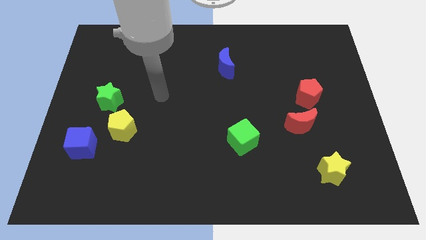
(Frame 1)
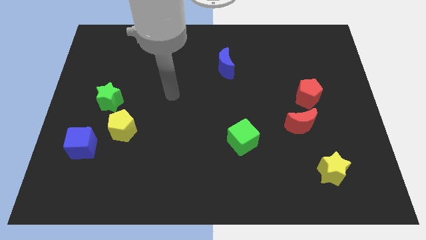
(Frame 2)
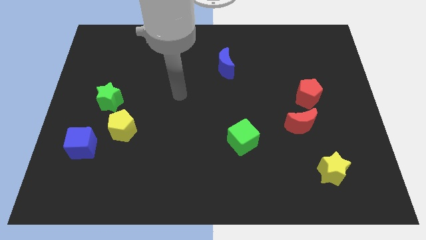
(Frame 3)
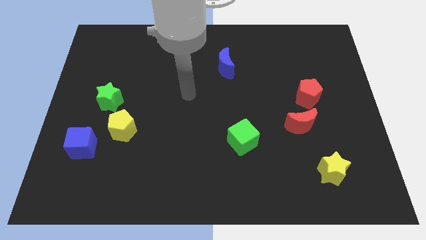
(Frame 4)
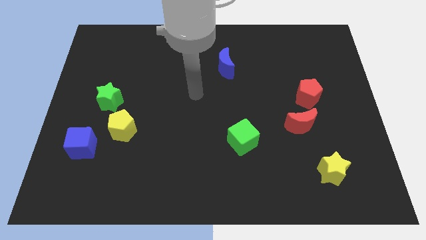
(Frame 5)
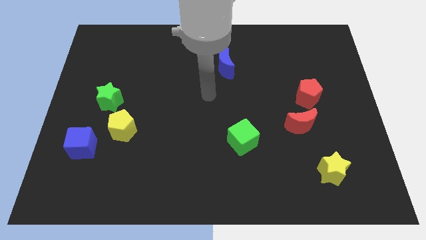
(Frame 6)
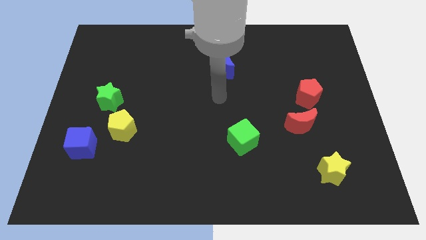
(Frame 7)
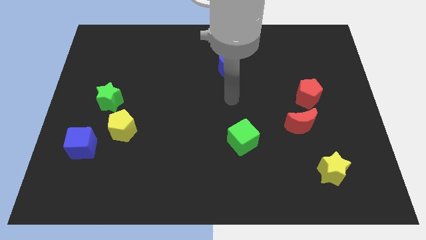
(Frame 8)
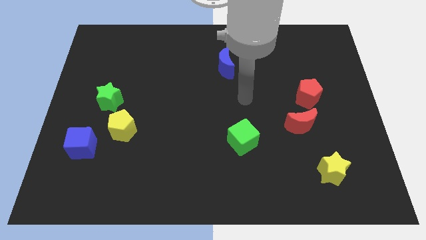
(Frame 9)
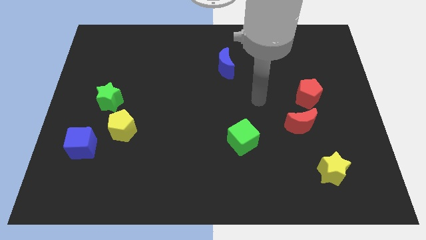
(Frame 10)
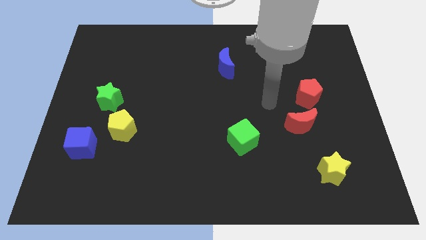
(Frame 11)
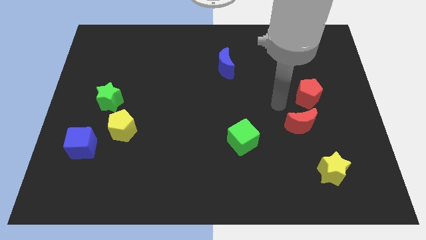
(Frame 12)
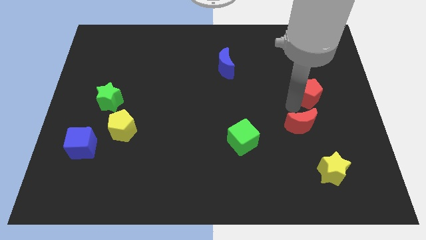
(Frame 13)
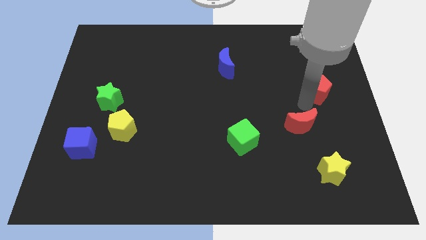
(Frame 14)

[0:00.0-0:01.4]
separate the red moon from the red pentagon

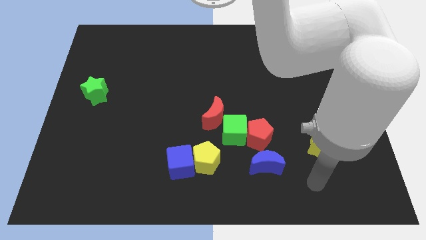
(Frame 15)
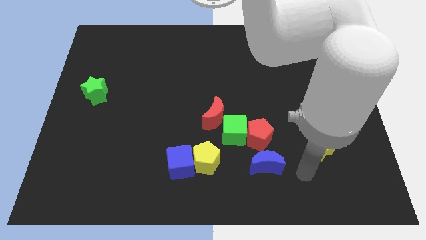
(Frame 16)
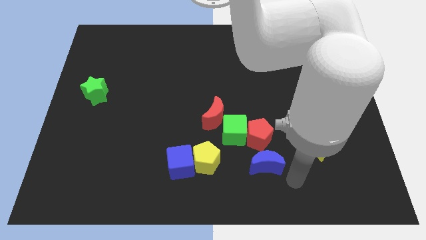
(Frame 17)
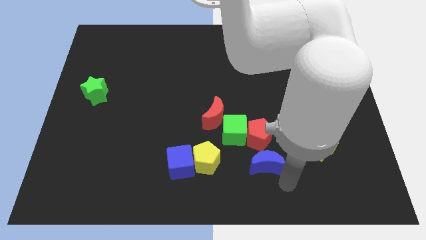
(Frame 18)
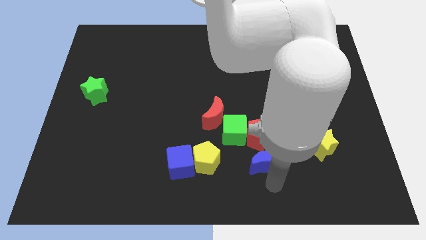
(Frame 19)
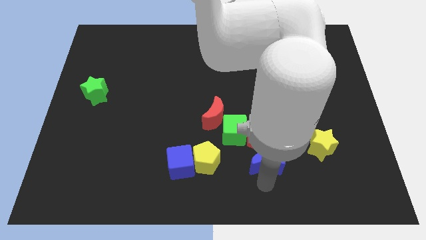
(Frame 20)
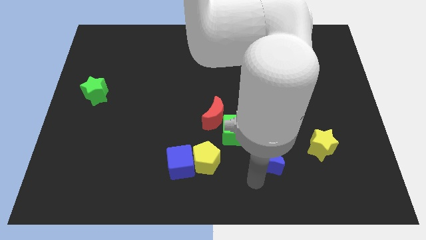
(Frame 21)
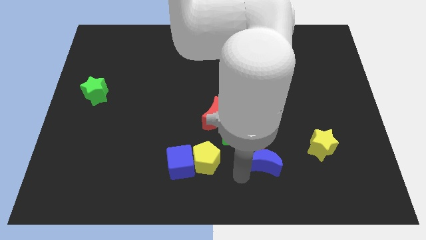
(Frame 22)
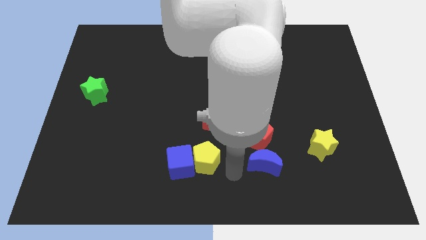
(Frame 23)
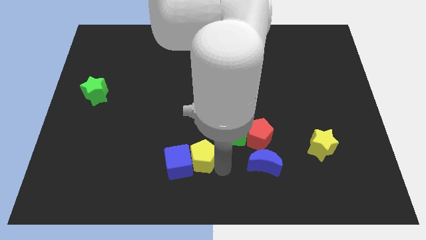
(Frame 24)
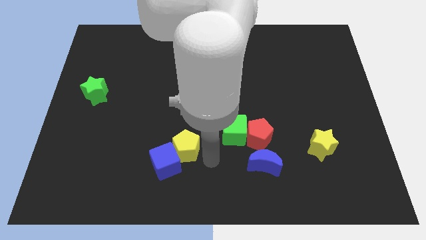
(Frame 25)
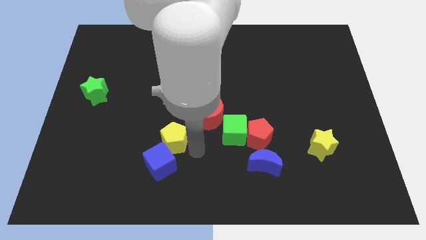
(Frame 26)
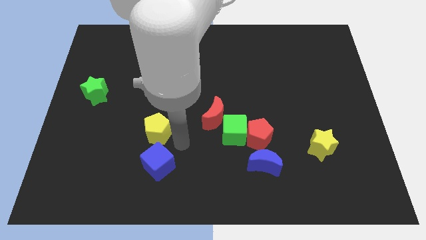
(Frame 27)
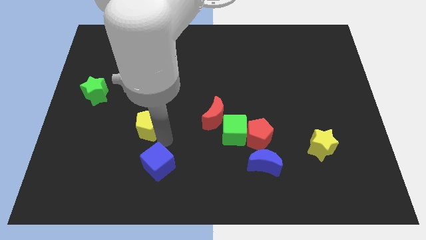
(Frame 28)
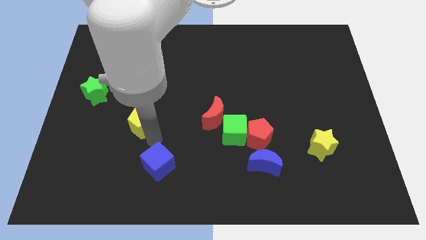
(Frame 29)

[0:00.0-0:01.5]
separate the blue cube from the yellow pentagon

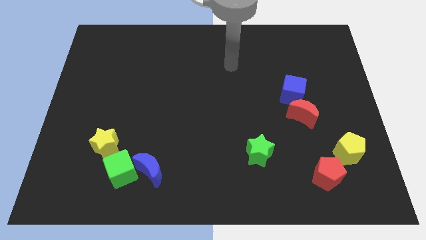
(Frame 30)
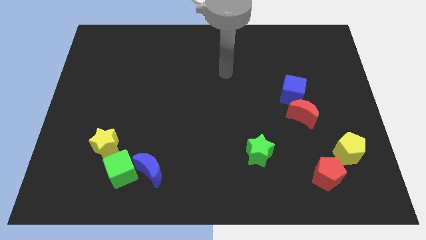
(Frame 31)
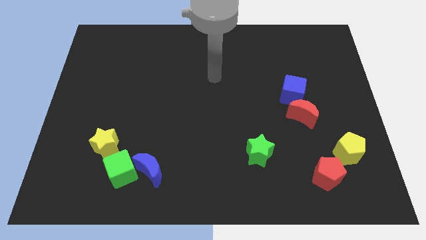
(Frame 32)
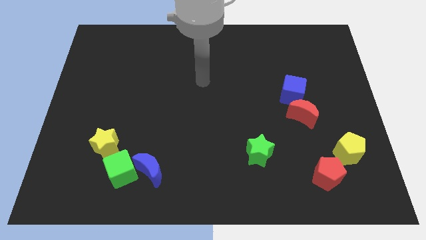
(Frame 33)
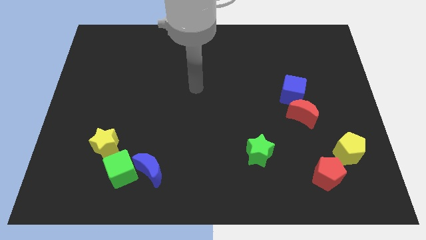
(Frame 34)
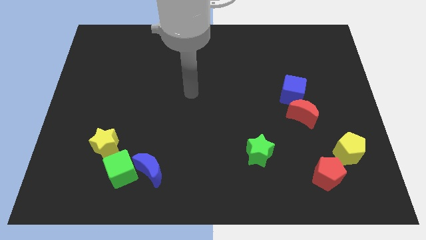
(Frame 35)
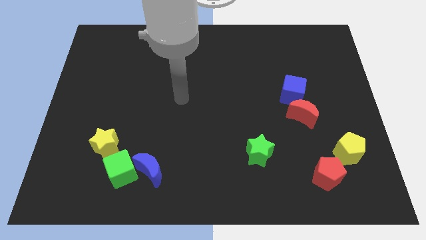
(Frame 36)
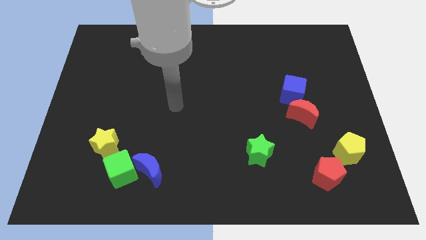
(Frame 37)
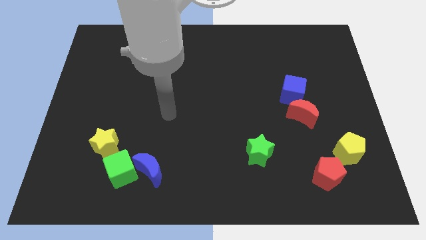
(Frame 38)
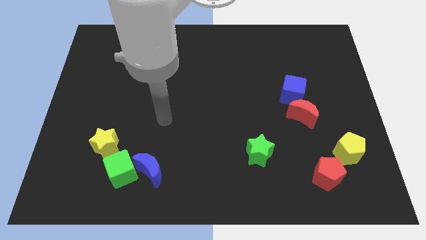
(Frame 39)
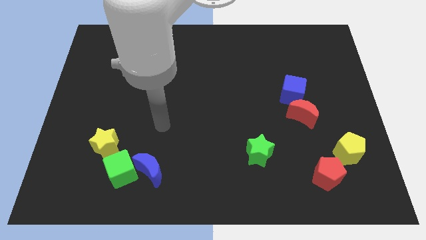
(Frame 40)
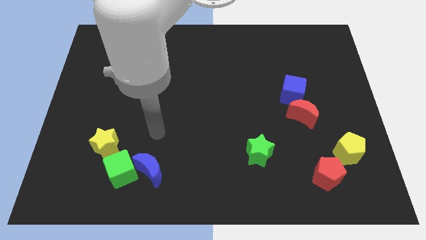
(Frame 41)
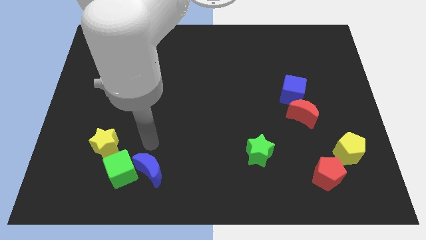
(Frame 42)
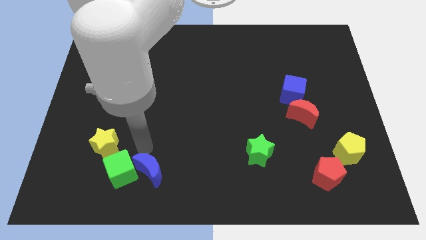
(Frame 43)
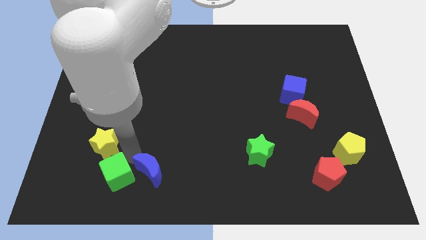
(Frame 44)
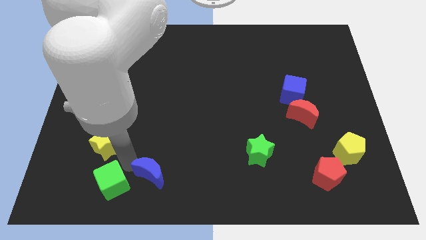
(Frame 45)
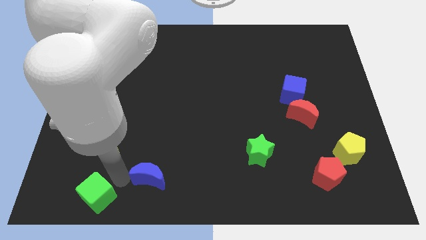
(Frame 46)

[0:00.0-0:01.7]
pull the blue moon apart from the green cube

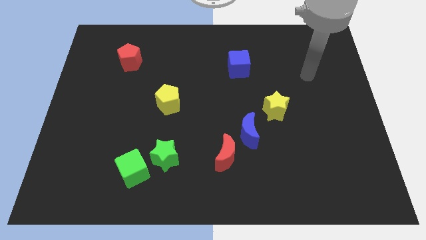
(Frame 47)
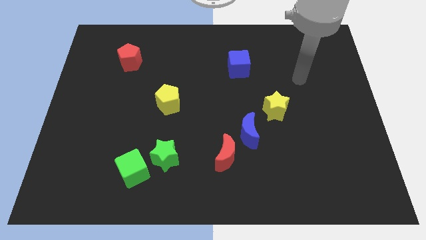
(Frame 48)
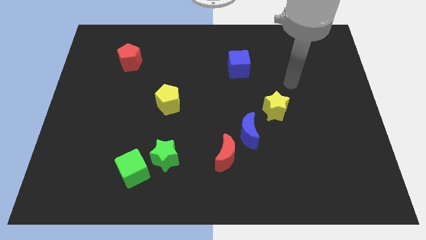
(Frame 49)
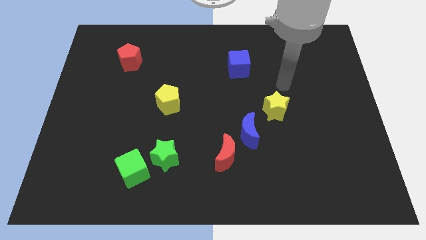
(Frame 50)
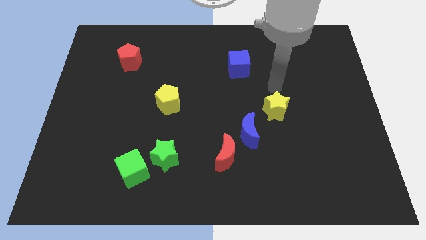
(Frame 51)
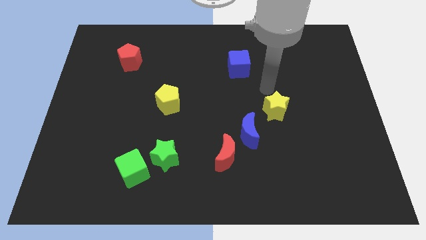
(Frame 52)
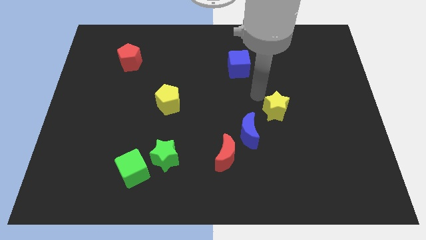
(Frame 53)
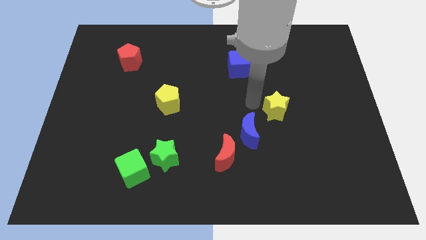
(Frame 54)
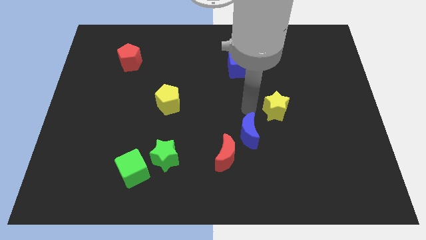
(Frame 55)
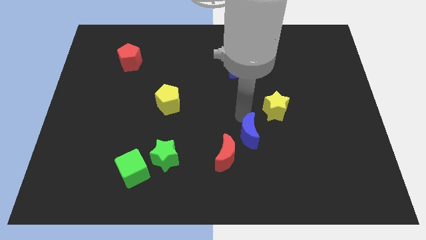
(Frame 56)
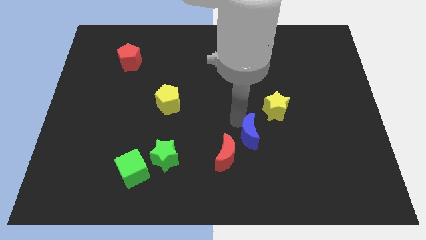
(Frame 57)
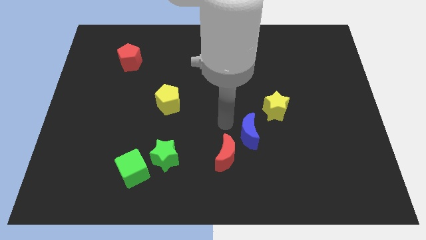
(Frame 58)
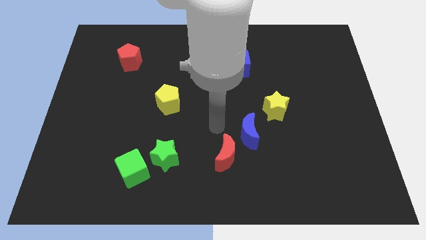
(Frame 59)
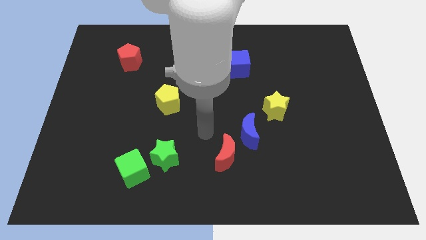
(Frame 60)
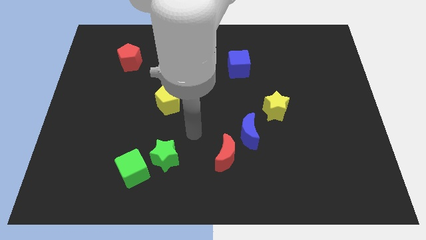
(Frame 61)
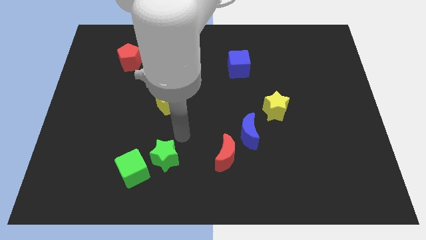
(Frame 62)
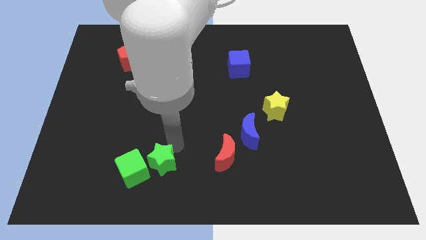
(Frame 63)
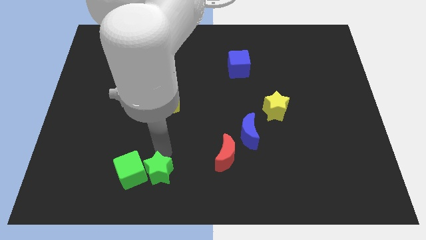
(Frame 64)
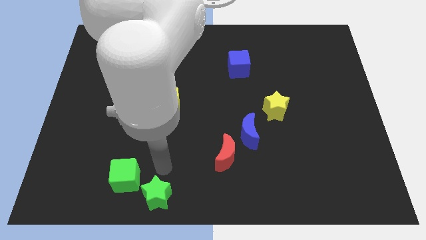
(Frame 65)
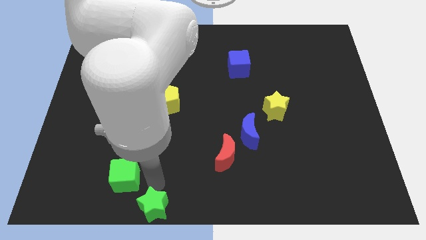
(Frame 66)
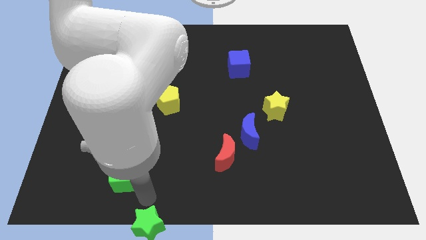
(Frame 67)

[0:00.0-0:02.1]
move the green cube away from the green star

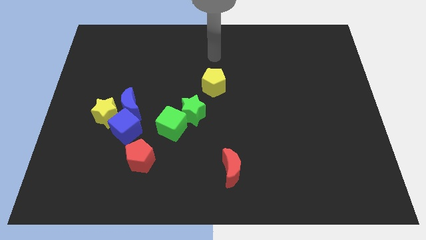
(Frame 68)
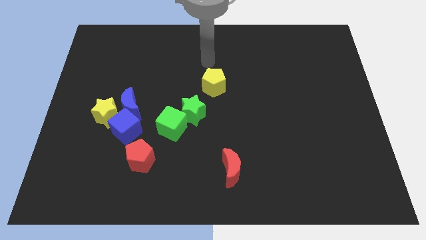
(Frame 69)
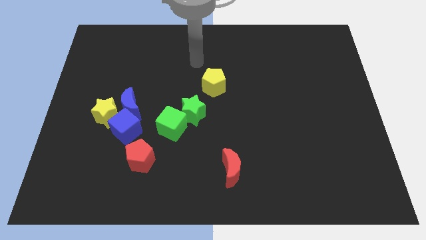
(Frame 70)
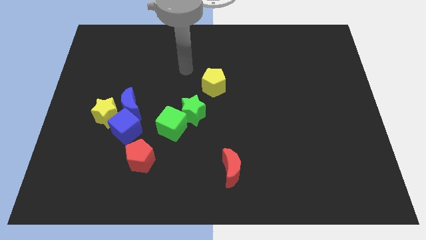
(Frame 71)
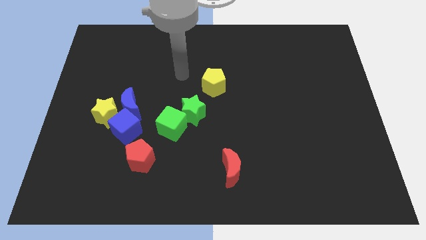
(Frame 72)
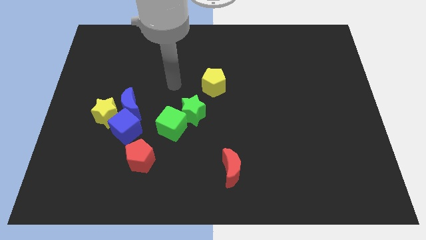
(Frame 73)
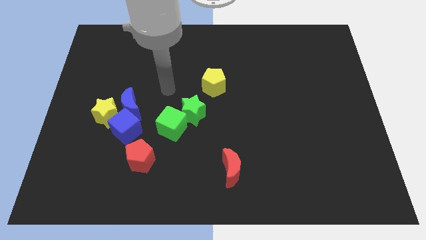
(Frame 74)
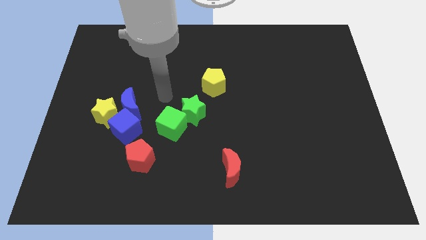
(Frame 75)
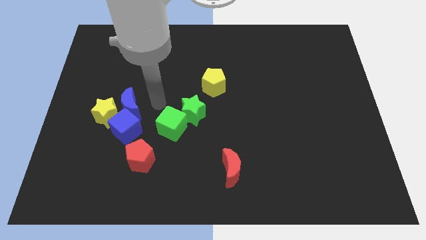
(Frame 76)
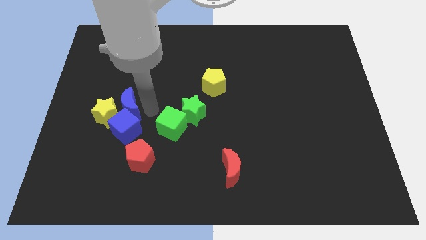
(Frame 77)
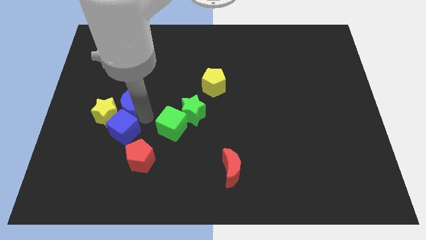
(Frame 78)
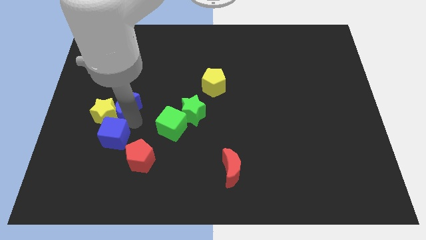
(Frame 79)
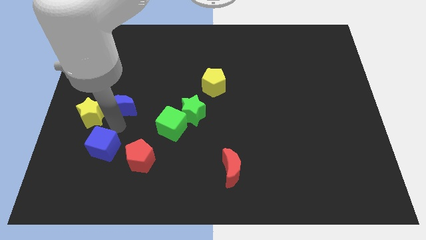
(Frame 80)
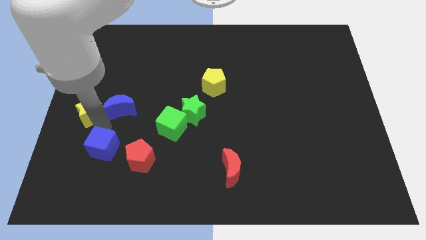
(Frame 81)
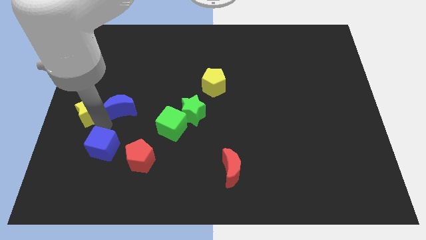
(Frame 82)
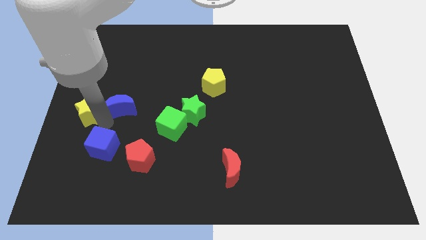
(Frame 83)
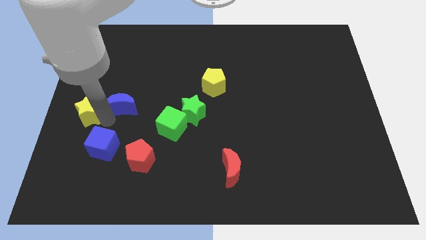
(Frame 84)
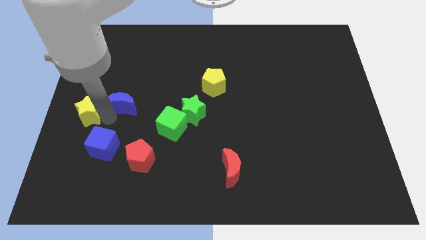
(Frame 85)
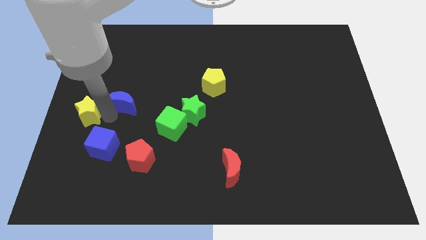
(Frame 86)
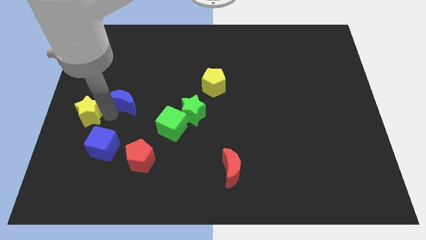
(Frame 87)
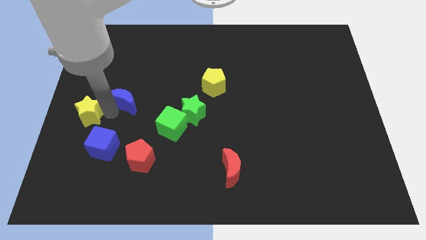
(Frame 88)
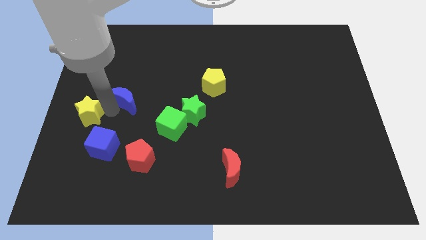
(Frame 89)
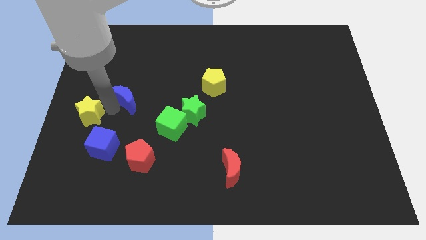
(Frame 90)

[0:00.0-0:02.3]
separate the blue moon from the yellow star and blue cube
